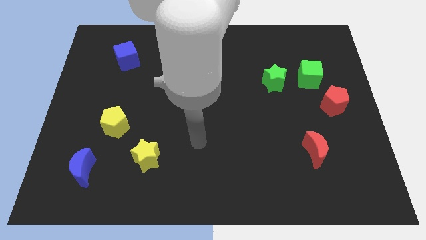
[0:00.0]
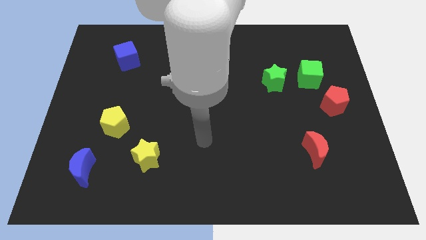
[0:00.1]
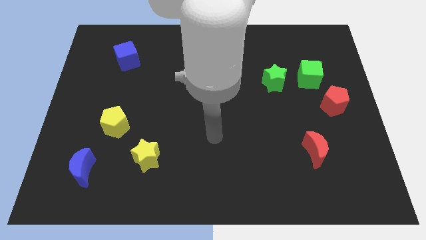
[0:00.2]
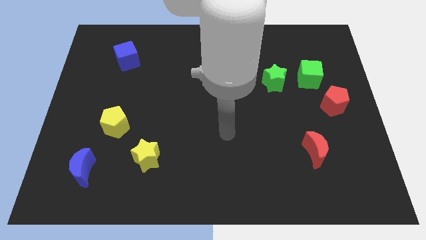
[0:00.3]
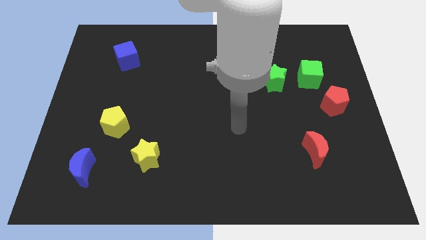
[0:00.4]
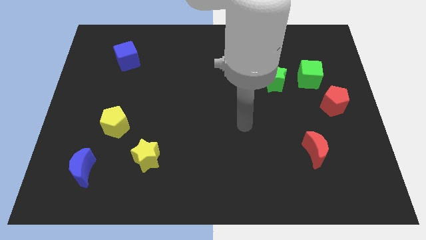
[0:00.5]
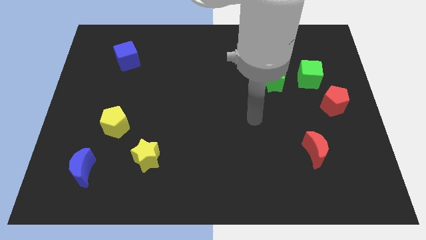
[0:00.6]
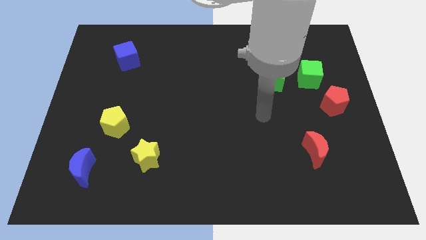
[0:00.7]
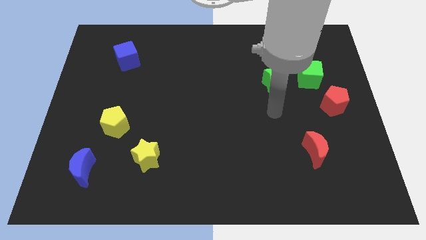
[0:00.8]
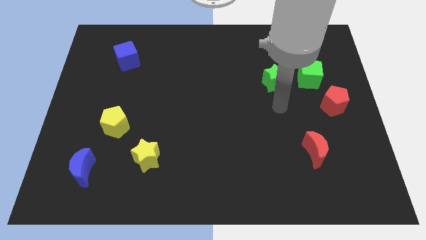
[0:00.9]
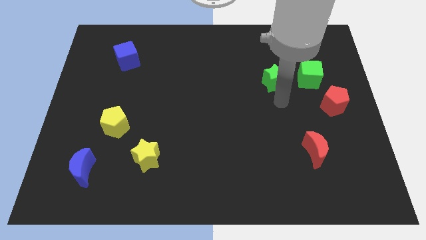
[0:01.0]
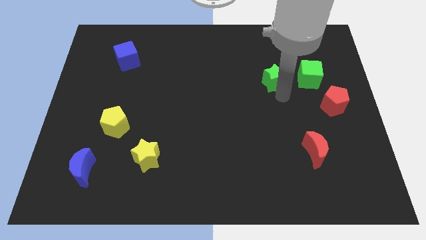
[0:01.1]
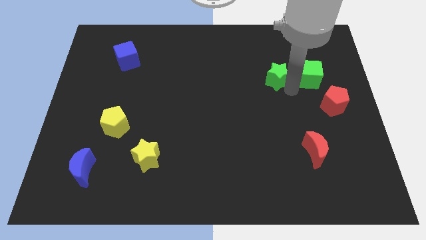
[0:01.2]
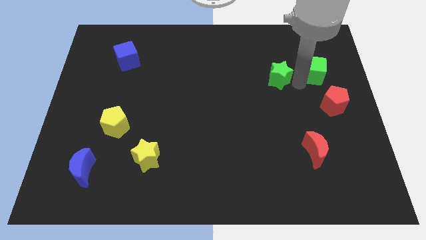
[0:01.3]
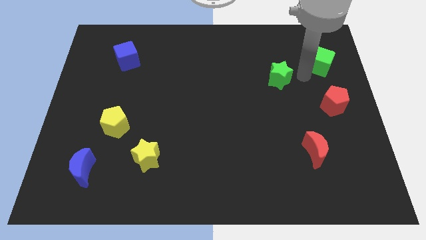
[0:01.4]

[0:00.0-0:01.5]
move the green star away from the green cube

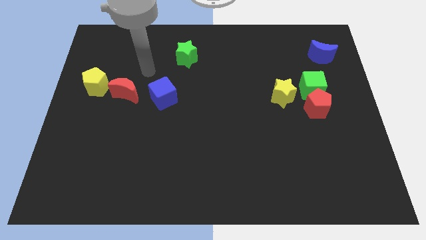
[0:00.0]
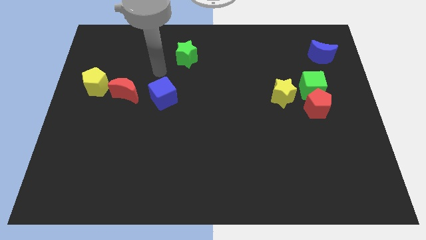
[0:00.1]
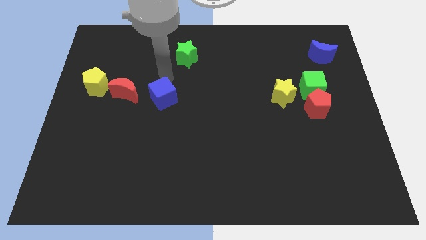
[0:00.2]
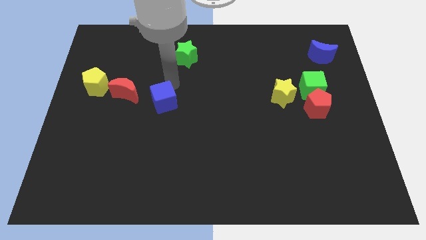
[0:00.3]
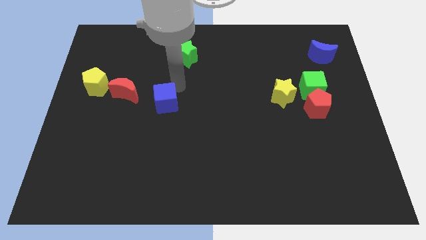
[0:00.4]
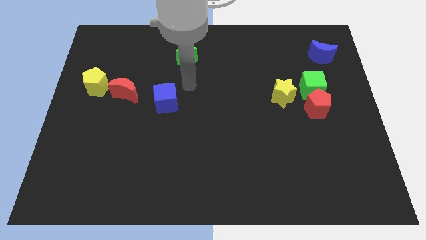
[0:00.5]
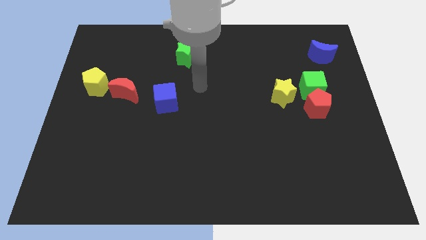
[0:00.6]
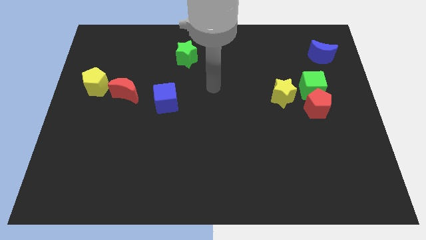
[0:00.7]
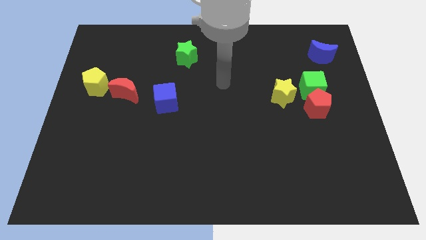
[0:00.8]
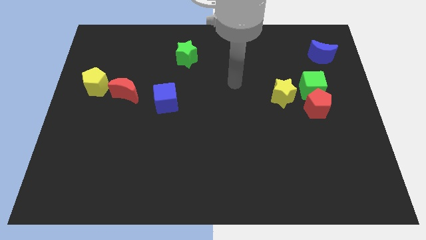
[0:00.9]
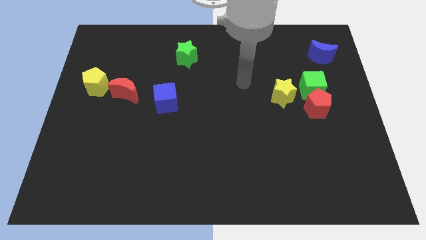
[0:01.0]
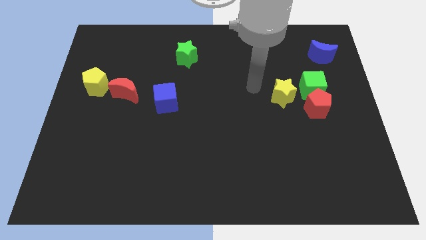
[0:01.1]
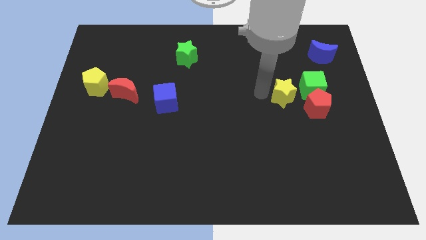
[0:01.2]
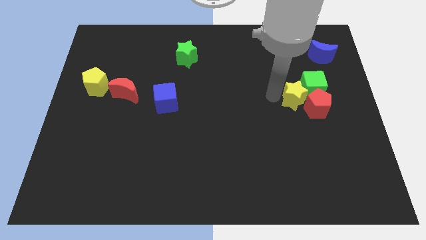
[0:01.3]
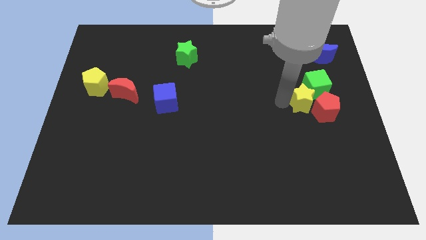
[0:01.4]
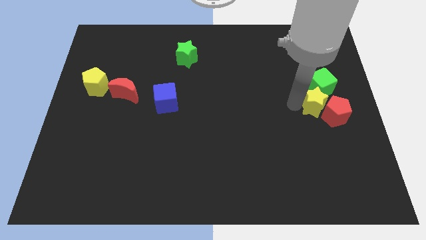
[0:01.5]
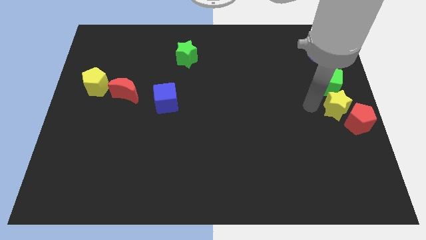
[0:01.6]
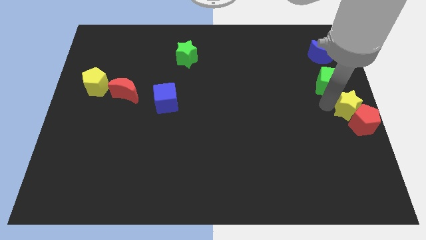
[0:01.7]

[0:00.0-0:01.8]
pull the green cube apart from the red pentagon and yellow star

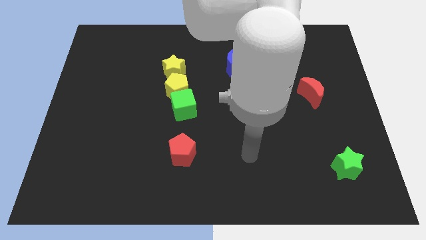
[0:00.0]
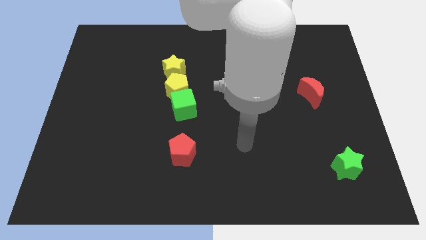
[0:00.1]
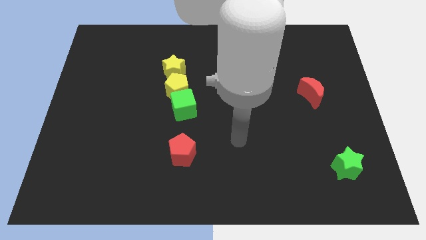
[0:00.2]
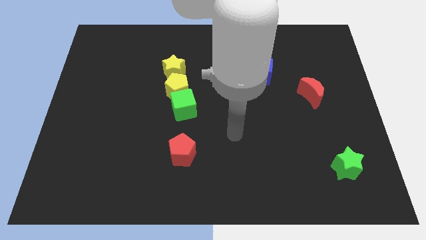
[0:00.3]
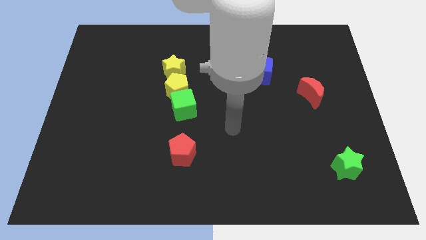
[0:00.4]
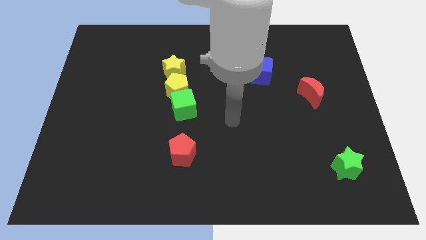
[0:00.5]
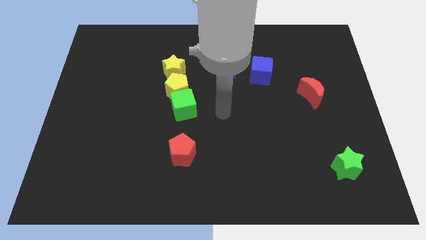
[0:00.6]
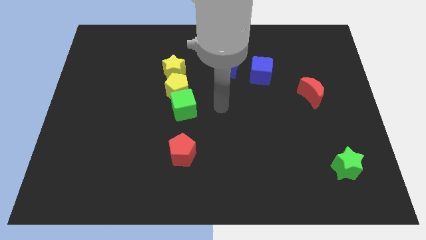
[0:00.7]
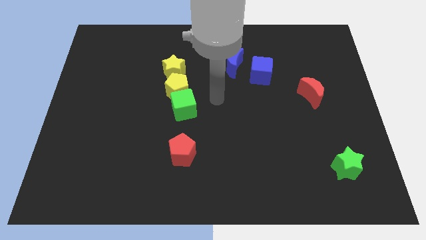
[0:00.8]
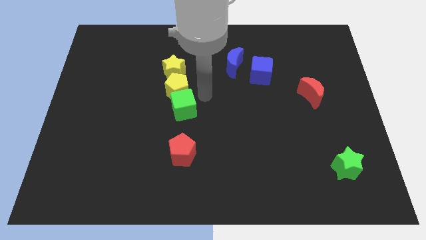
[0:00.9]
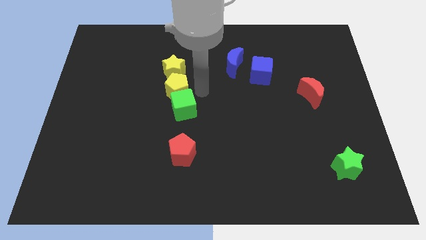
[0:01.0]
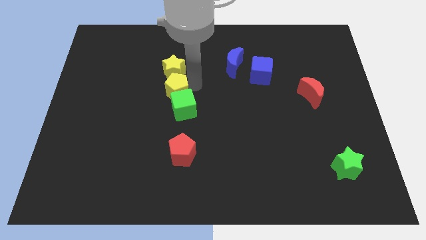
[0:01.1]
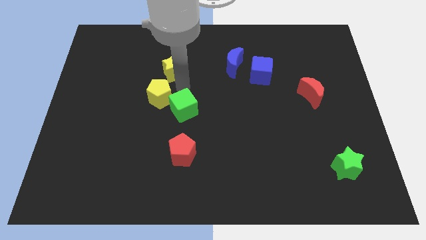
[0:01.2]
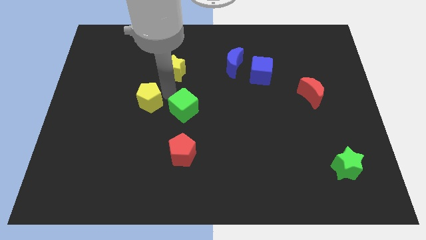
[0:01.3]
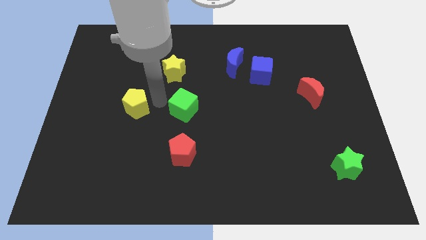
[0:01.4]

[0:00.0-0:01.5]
move the green cube away from the yellow pentagon

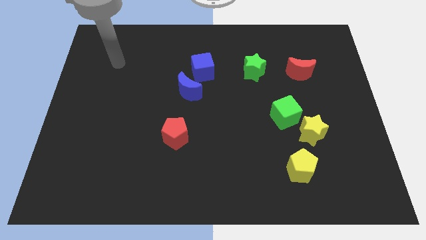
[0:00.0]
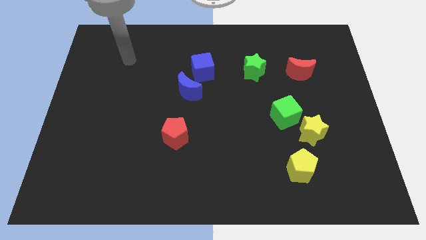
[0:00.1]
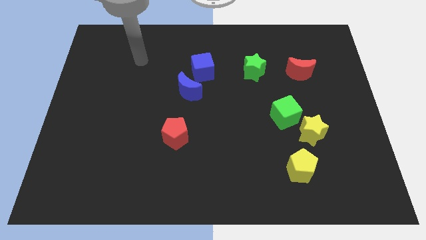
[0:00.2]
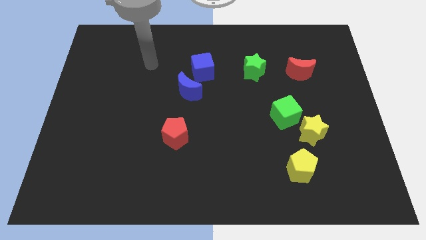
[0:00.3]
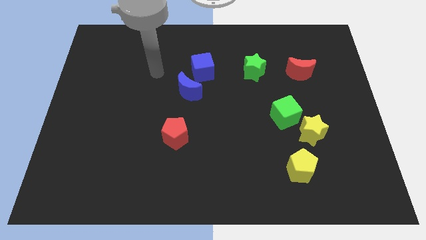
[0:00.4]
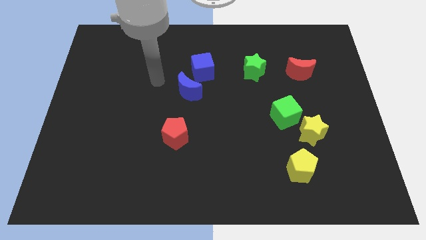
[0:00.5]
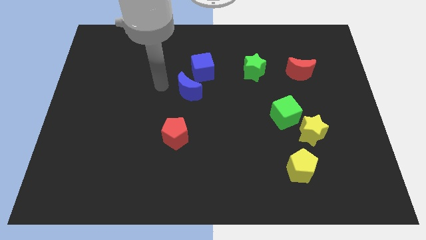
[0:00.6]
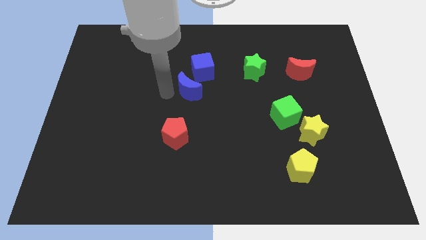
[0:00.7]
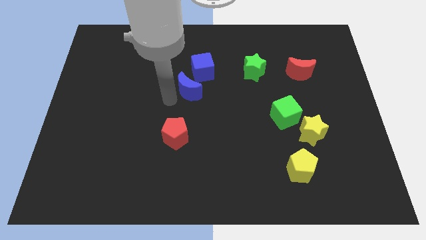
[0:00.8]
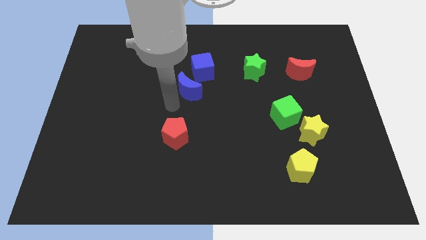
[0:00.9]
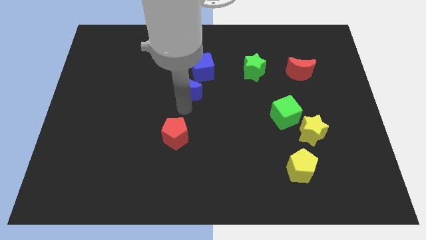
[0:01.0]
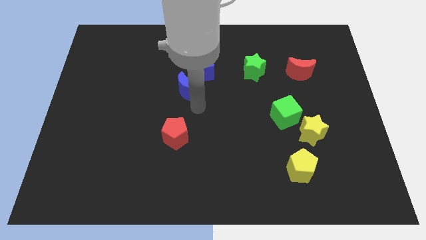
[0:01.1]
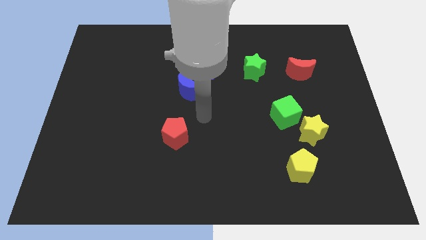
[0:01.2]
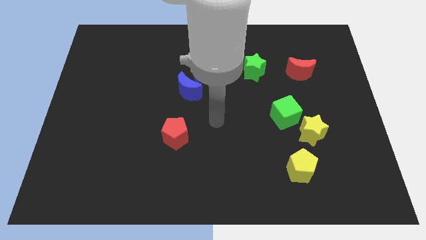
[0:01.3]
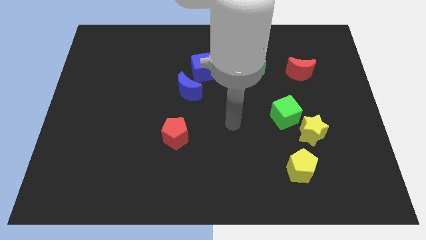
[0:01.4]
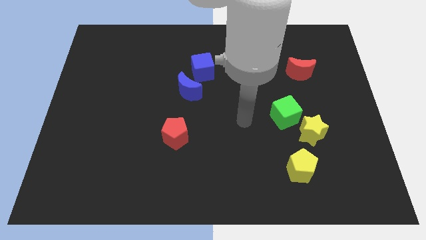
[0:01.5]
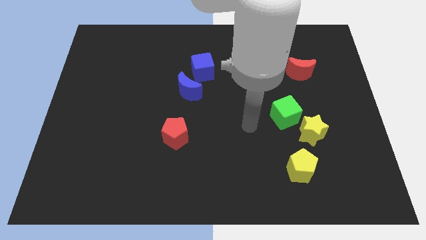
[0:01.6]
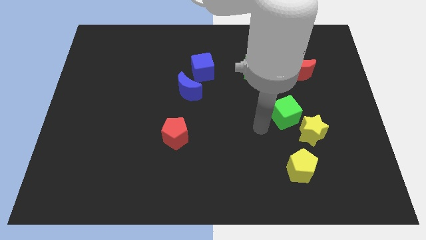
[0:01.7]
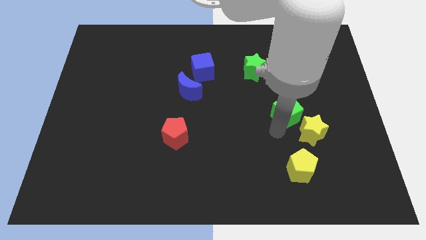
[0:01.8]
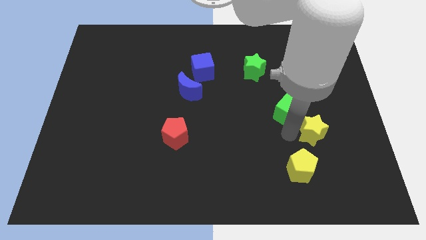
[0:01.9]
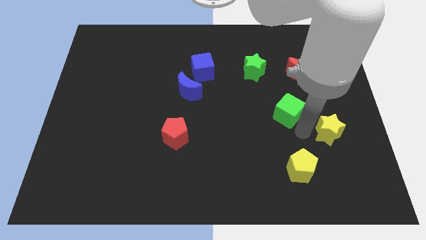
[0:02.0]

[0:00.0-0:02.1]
separate the green cube from the yellow star

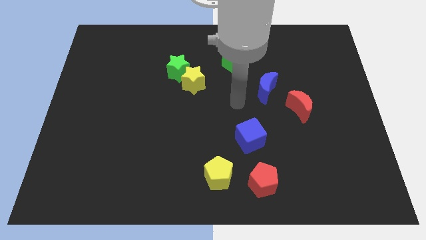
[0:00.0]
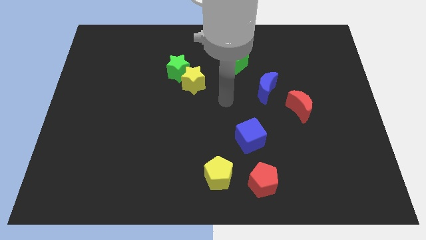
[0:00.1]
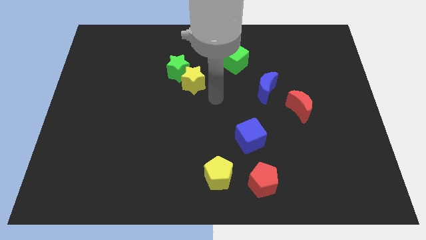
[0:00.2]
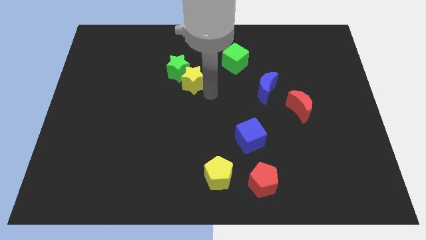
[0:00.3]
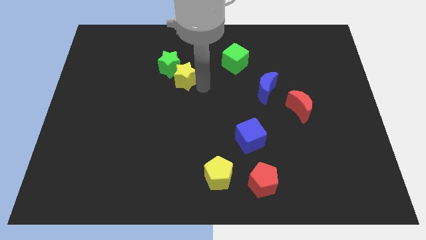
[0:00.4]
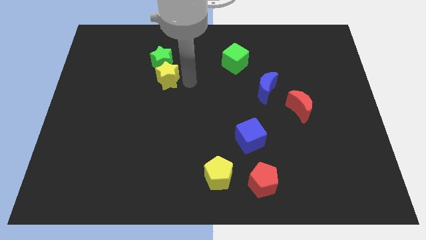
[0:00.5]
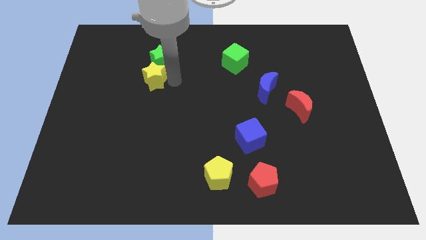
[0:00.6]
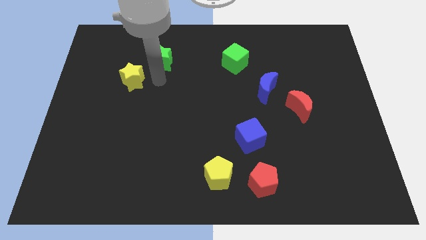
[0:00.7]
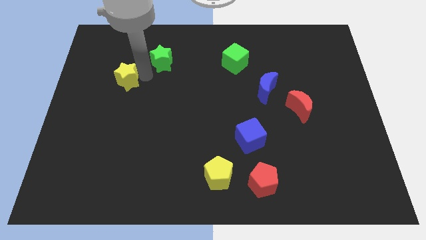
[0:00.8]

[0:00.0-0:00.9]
separate the green star from the yellow star

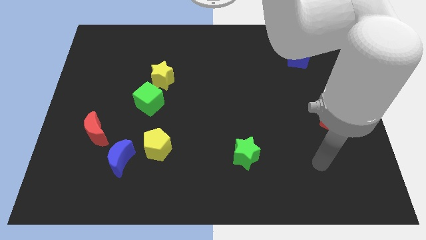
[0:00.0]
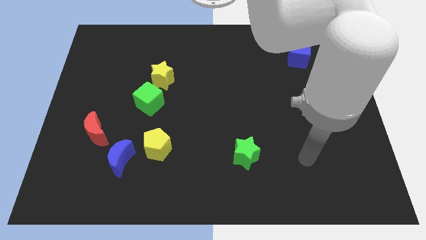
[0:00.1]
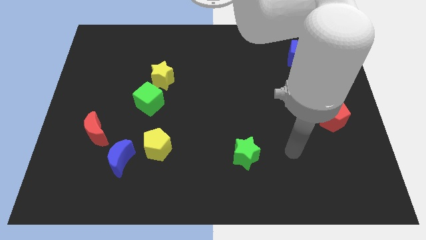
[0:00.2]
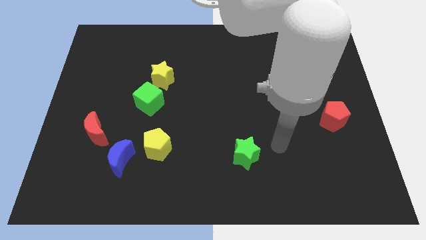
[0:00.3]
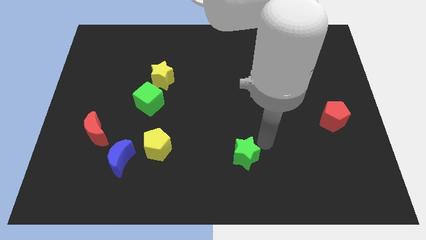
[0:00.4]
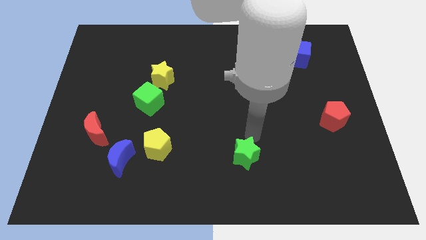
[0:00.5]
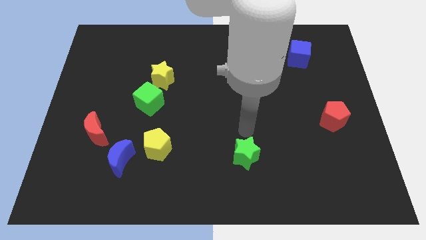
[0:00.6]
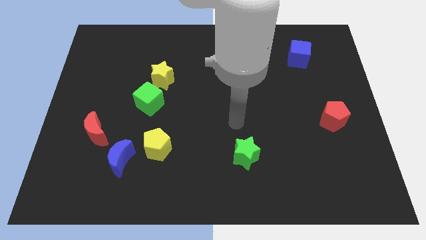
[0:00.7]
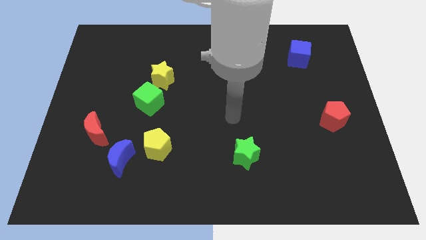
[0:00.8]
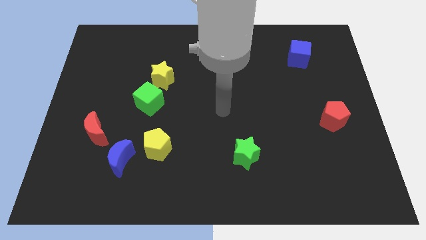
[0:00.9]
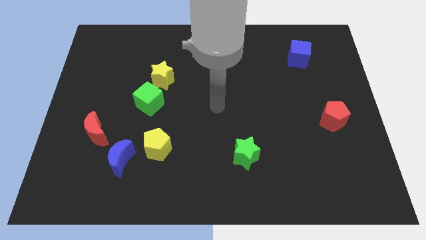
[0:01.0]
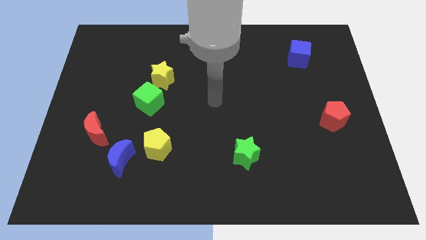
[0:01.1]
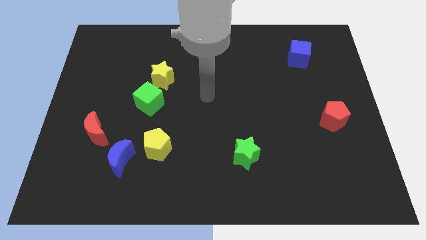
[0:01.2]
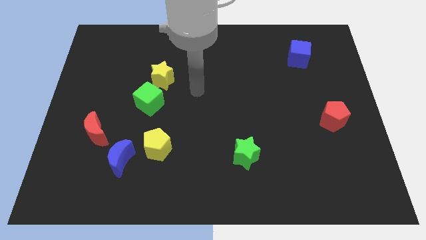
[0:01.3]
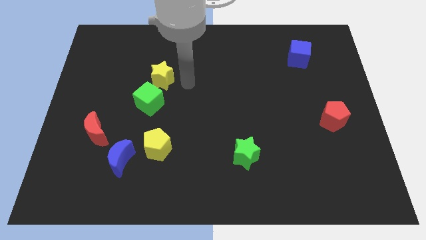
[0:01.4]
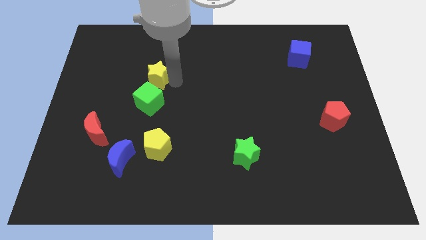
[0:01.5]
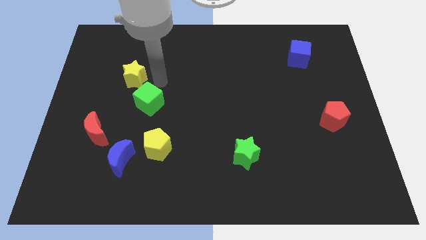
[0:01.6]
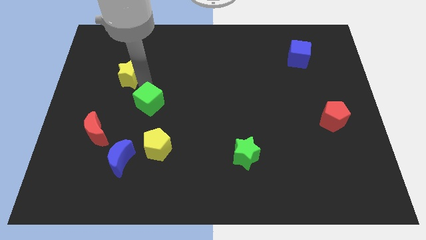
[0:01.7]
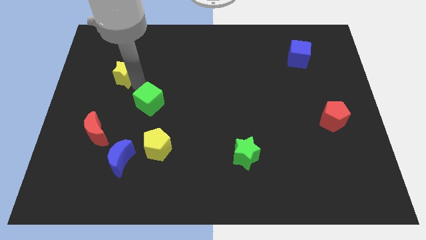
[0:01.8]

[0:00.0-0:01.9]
move the green cube away from the yellow star
